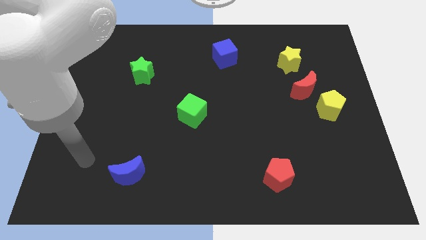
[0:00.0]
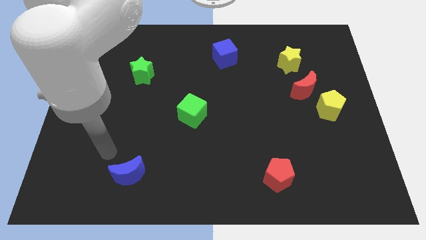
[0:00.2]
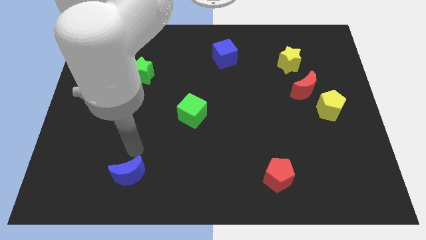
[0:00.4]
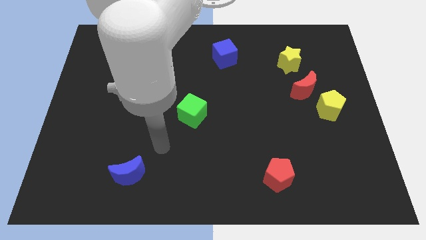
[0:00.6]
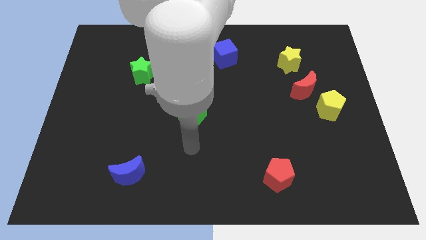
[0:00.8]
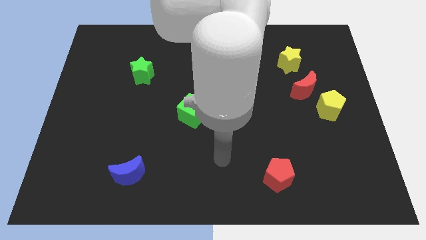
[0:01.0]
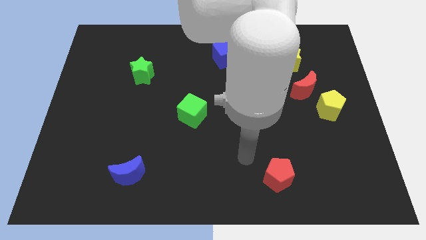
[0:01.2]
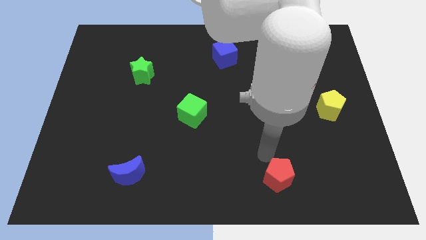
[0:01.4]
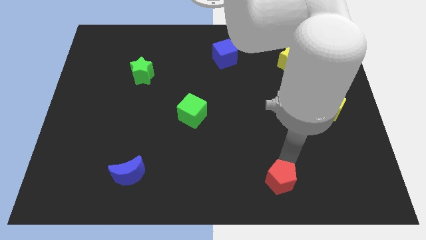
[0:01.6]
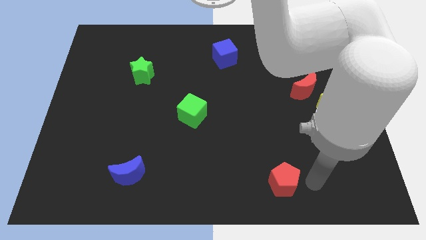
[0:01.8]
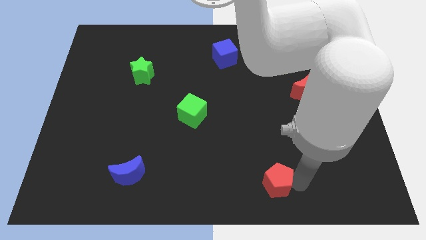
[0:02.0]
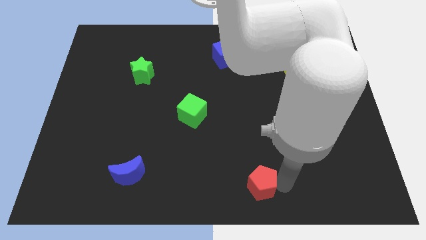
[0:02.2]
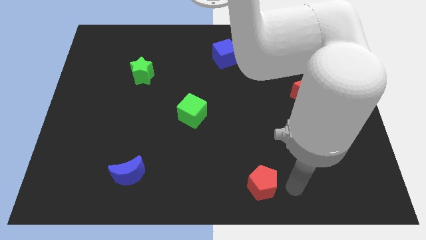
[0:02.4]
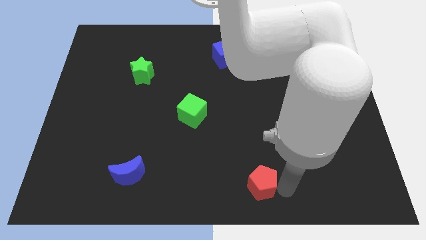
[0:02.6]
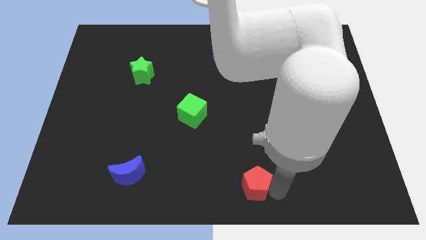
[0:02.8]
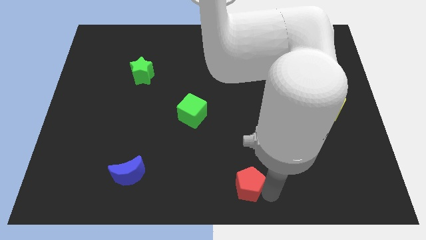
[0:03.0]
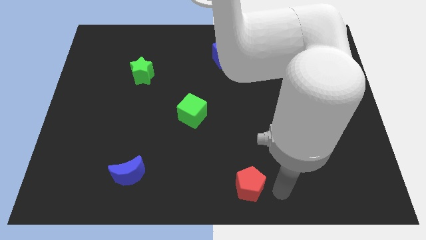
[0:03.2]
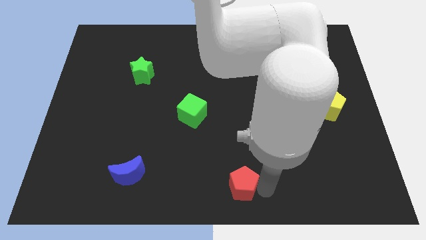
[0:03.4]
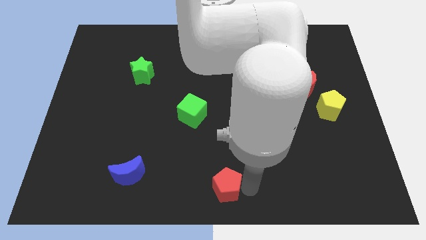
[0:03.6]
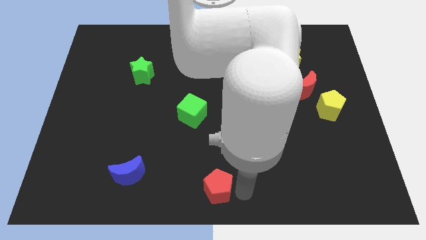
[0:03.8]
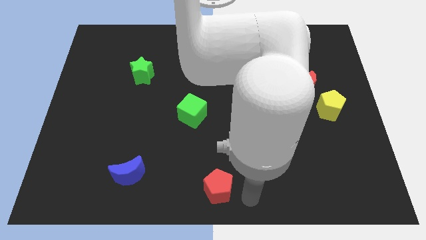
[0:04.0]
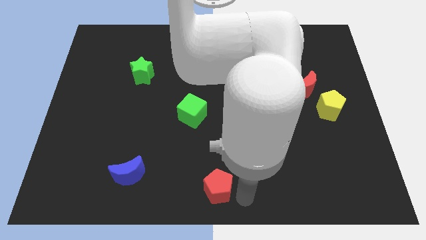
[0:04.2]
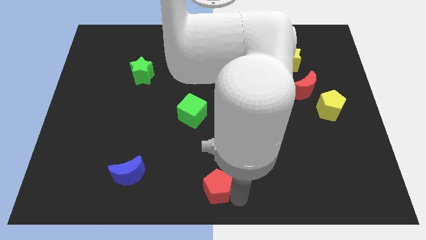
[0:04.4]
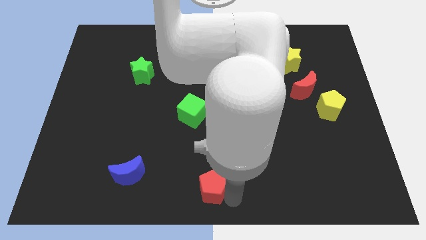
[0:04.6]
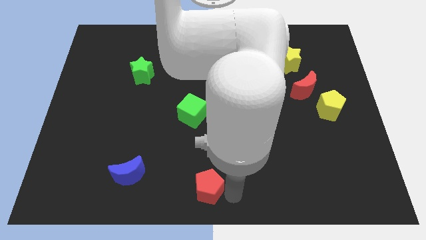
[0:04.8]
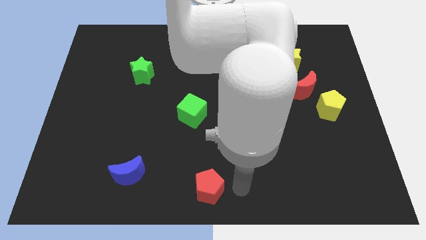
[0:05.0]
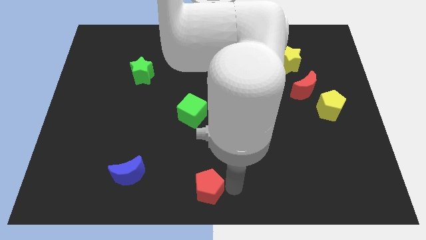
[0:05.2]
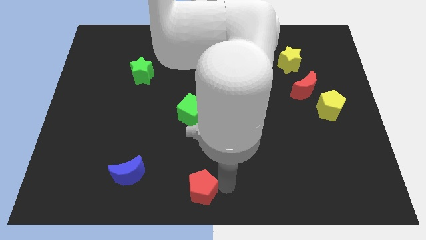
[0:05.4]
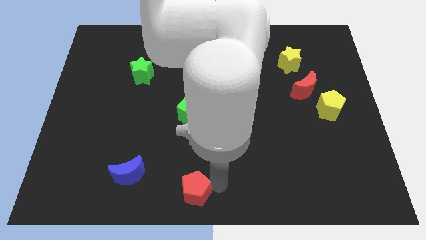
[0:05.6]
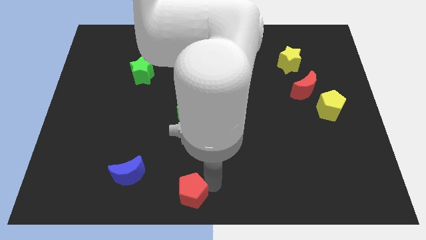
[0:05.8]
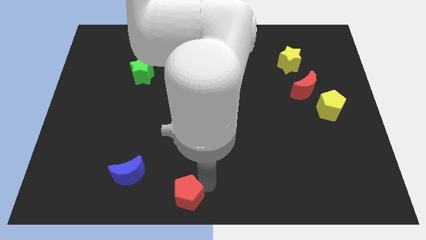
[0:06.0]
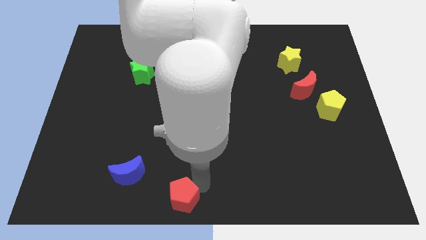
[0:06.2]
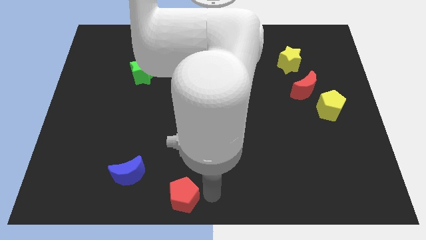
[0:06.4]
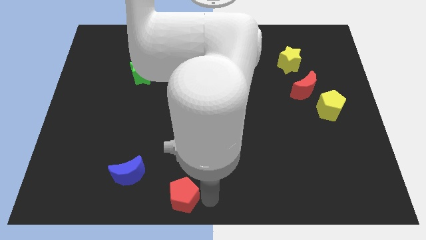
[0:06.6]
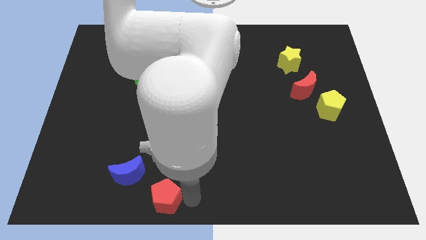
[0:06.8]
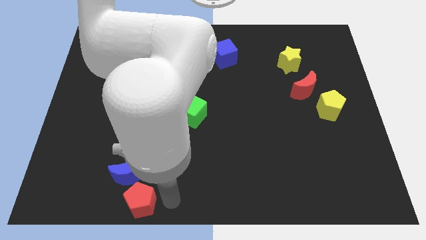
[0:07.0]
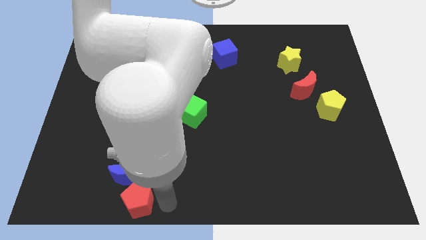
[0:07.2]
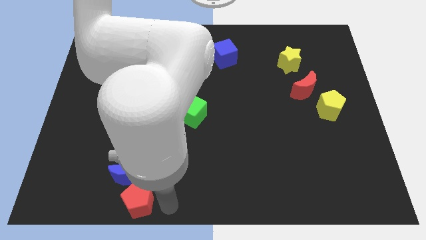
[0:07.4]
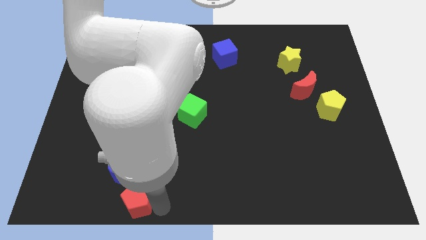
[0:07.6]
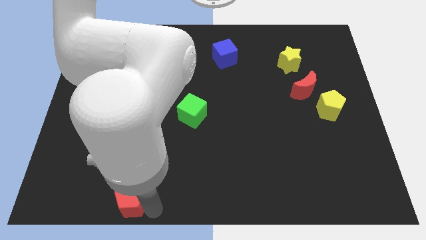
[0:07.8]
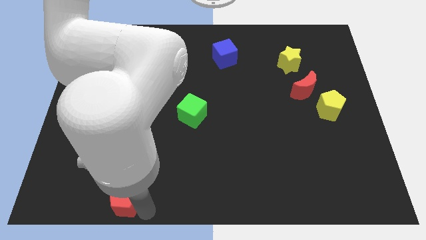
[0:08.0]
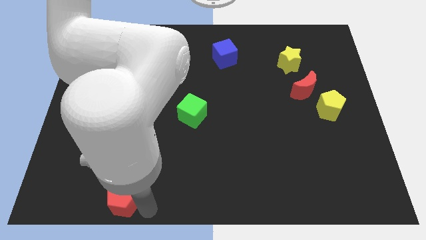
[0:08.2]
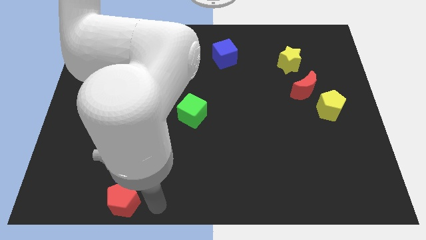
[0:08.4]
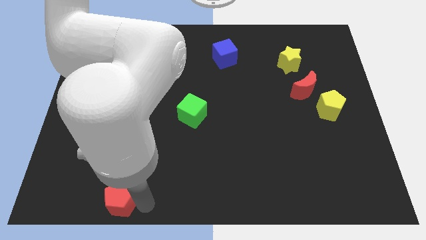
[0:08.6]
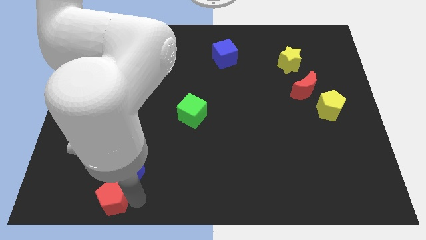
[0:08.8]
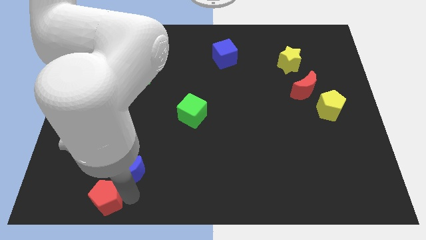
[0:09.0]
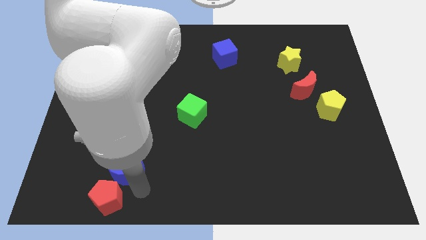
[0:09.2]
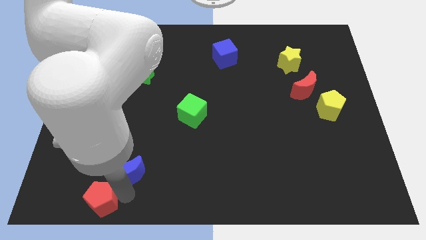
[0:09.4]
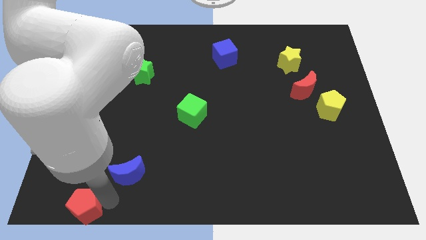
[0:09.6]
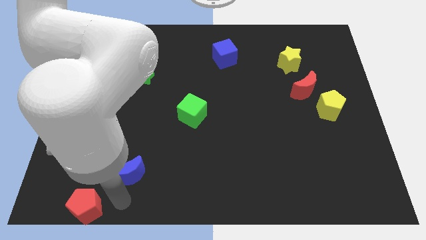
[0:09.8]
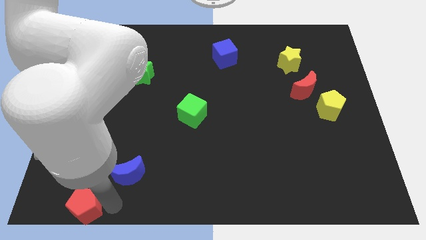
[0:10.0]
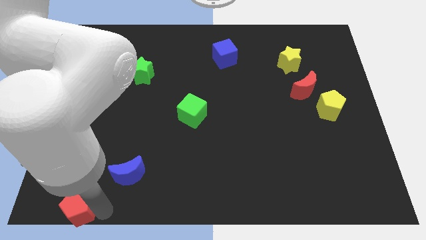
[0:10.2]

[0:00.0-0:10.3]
slide the red pentagon to the bottom left

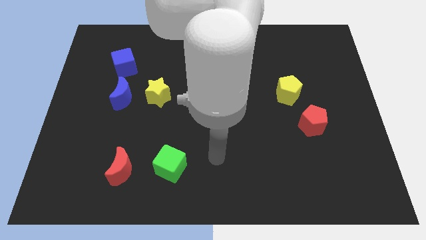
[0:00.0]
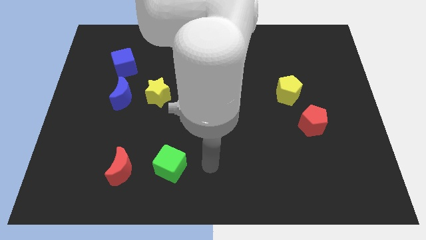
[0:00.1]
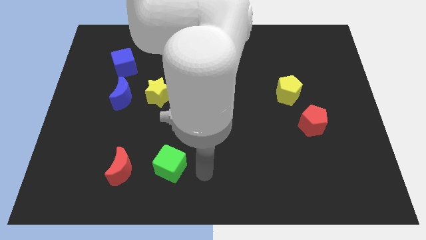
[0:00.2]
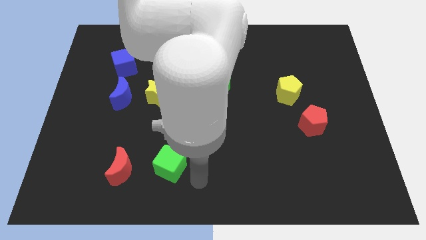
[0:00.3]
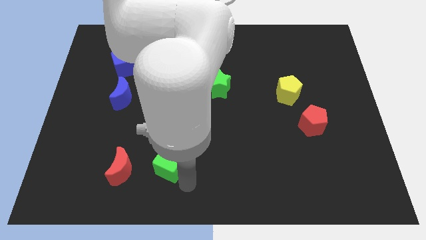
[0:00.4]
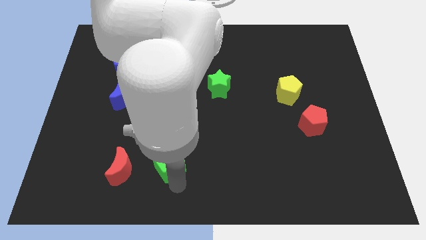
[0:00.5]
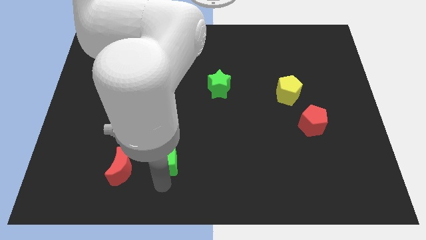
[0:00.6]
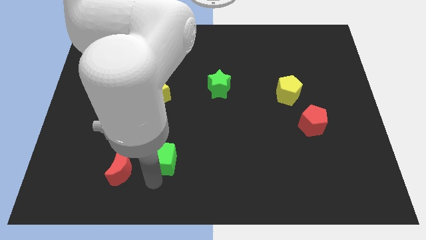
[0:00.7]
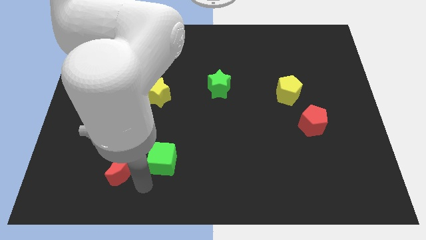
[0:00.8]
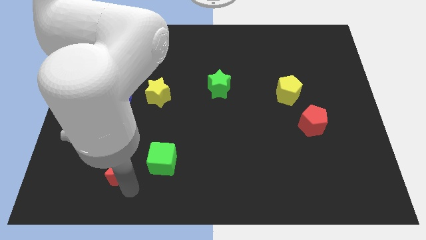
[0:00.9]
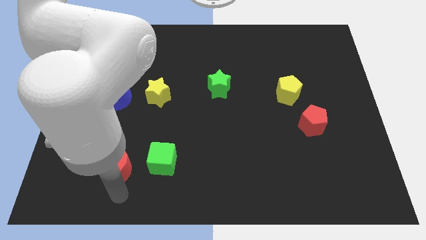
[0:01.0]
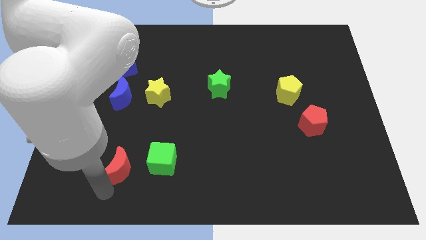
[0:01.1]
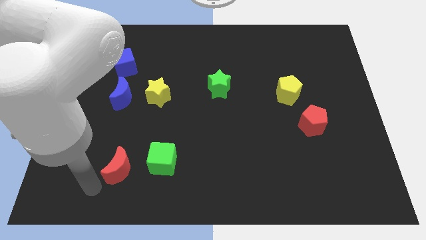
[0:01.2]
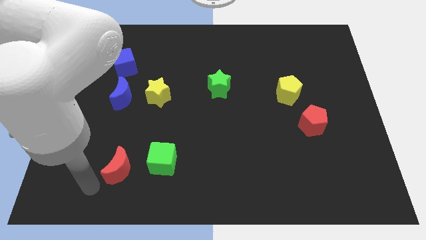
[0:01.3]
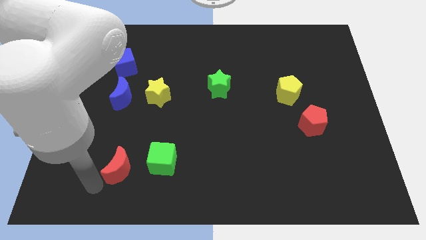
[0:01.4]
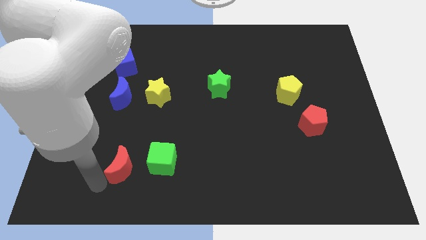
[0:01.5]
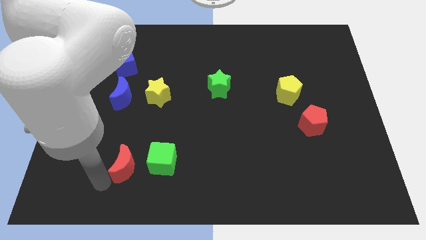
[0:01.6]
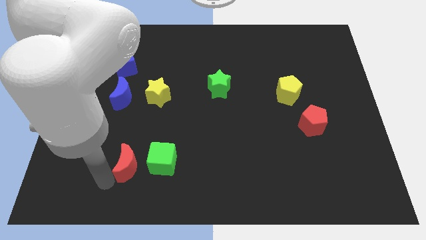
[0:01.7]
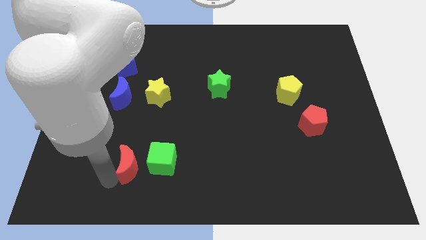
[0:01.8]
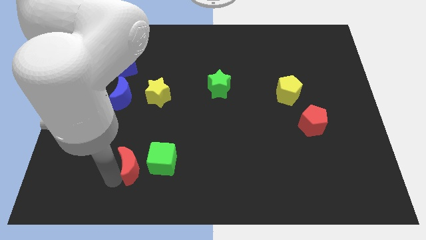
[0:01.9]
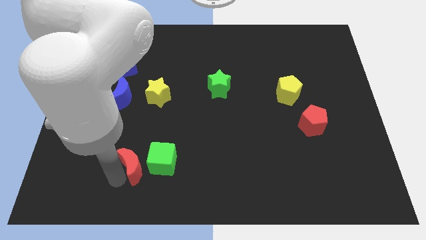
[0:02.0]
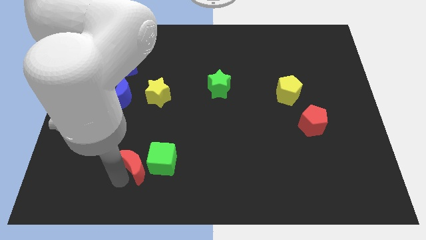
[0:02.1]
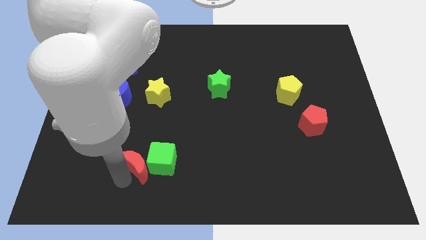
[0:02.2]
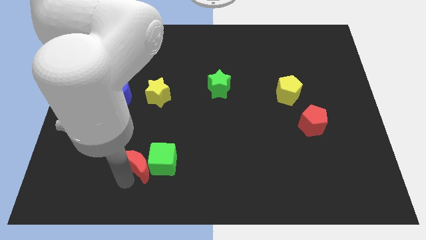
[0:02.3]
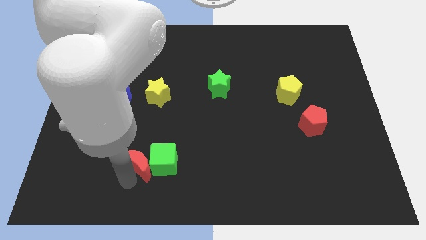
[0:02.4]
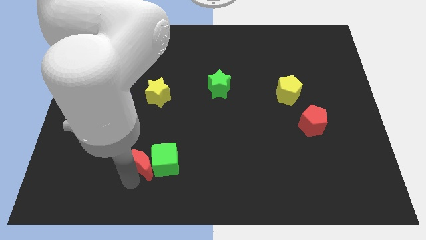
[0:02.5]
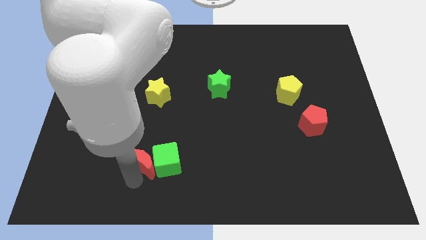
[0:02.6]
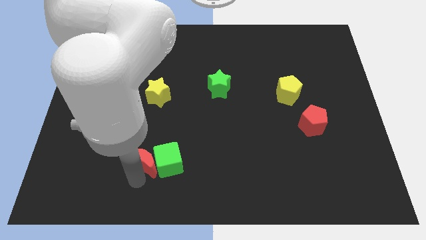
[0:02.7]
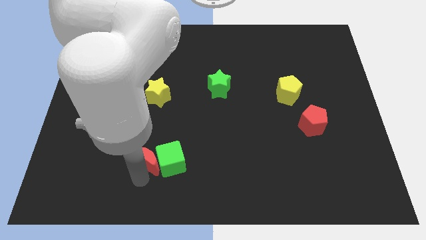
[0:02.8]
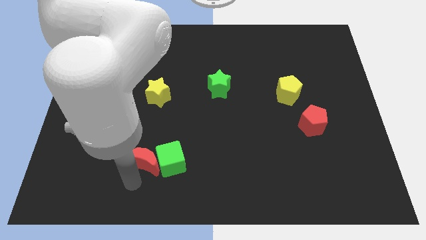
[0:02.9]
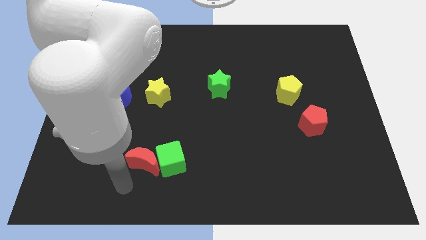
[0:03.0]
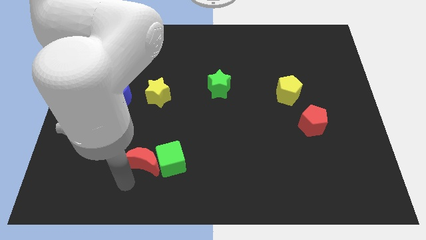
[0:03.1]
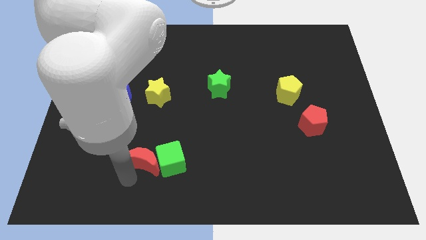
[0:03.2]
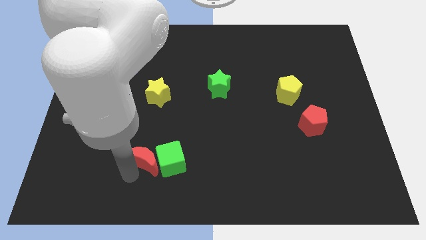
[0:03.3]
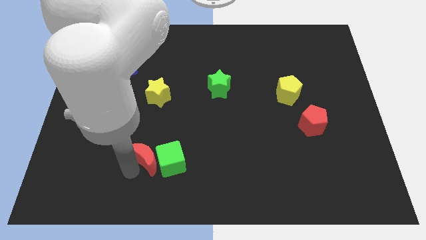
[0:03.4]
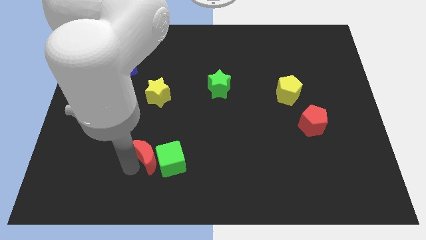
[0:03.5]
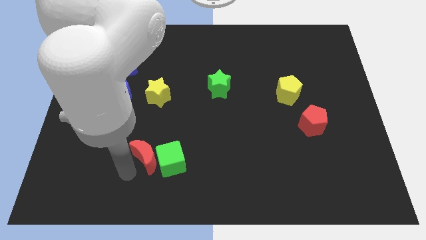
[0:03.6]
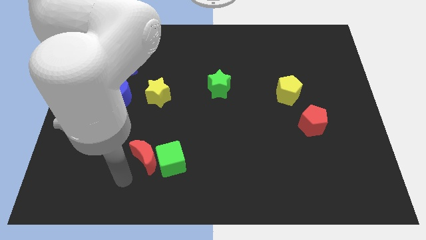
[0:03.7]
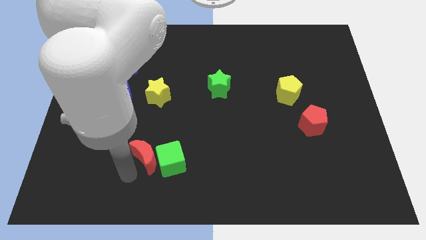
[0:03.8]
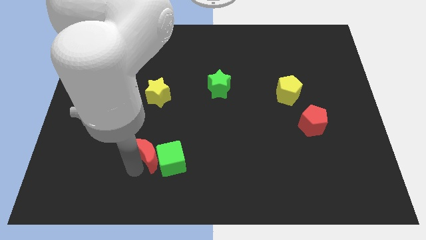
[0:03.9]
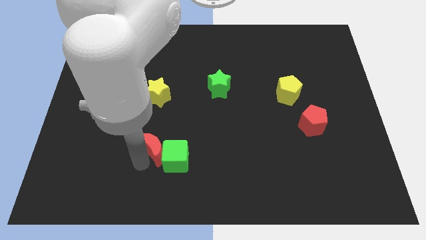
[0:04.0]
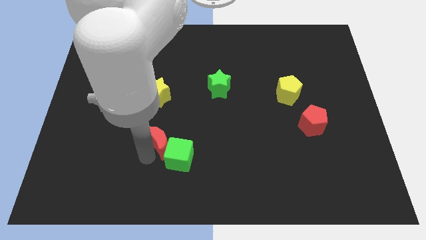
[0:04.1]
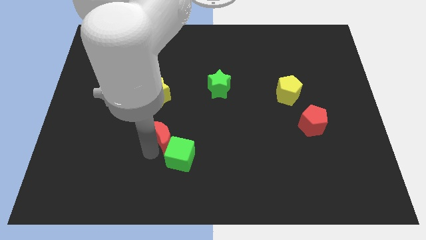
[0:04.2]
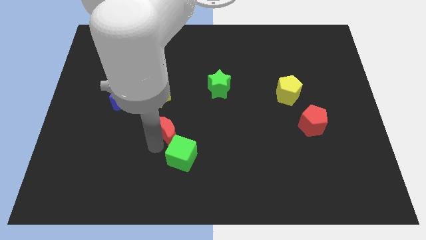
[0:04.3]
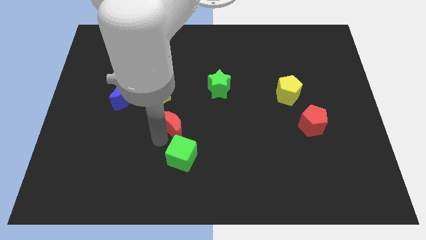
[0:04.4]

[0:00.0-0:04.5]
push the red moon to the middle
